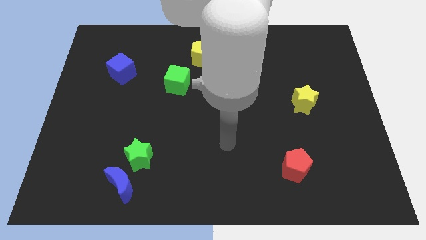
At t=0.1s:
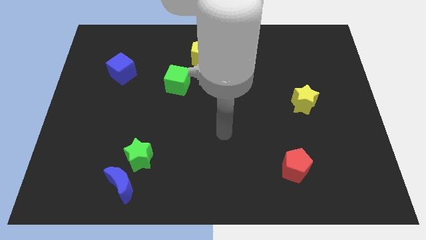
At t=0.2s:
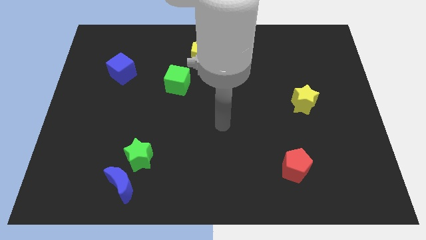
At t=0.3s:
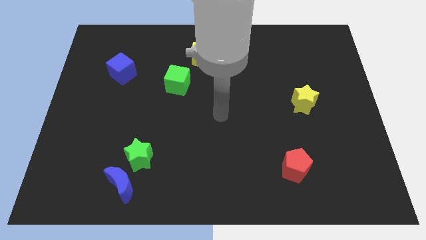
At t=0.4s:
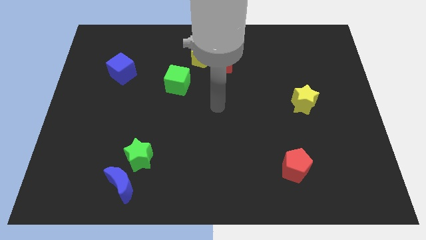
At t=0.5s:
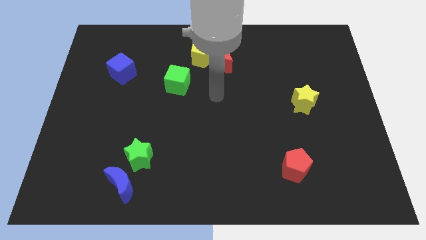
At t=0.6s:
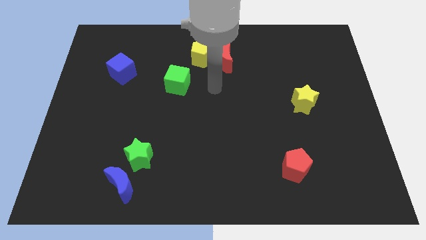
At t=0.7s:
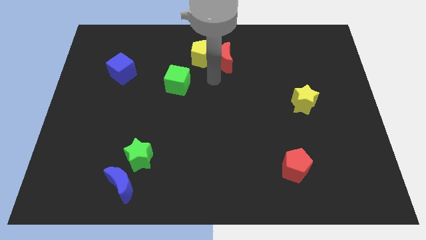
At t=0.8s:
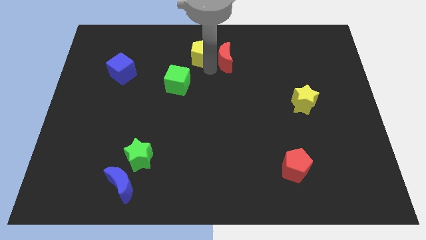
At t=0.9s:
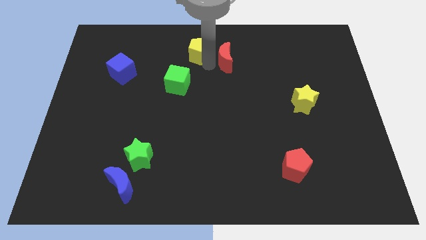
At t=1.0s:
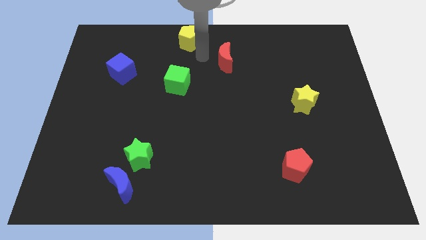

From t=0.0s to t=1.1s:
separate the red moon from the yellow pentagon

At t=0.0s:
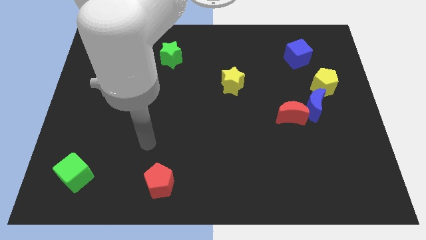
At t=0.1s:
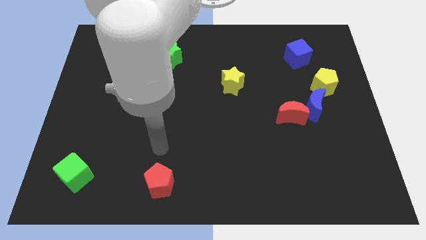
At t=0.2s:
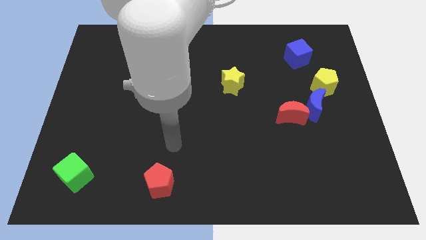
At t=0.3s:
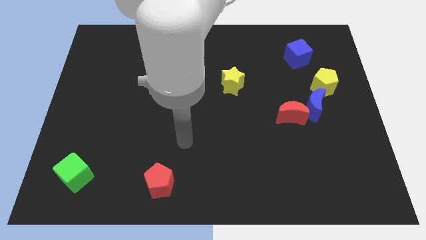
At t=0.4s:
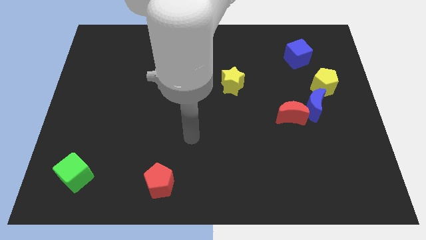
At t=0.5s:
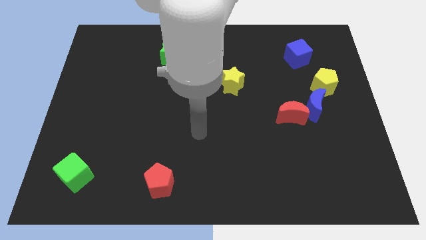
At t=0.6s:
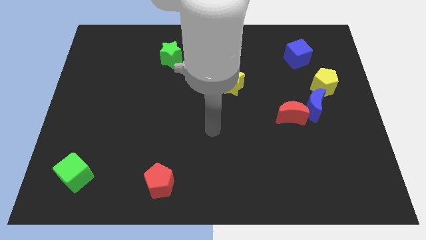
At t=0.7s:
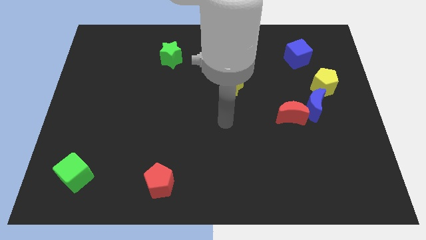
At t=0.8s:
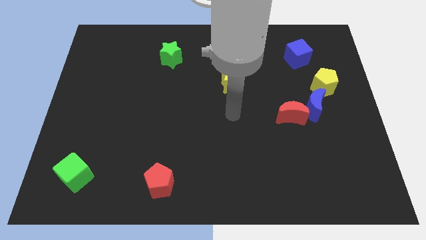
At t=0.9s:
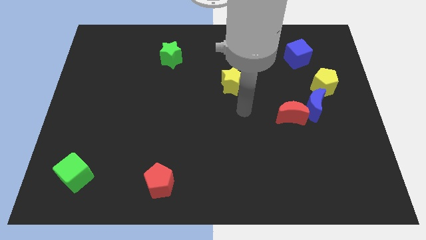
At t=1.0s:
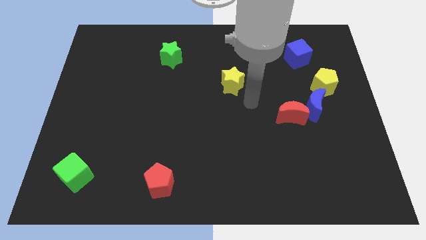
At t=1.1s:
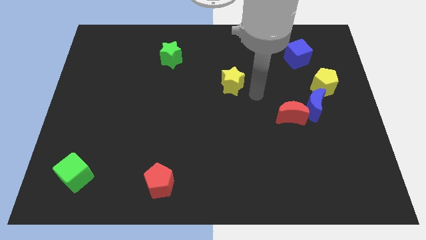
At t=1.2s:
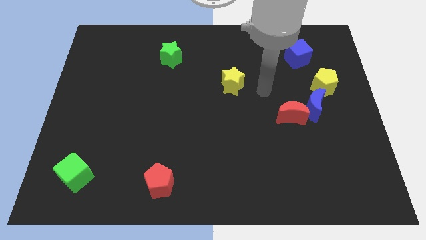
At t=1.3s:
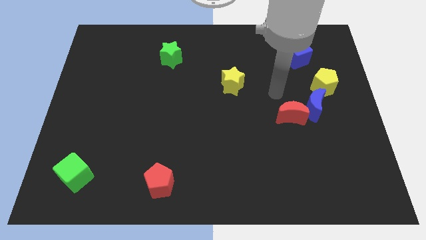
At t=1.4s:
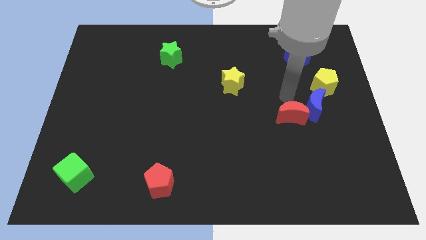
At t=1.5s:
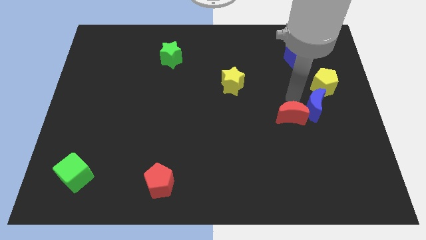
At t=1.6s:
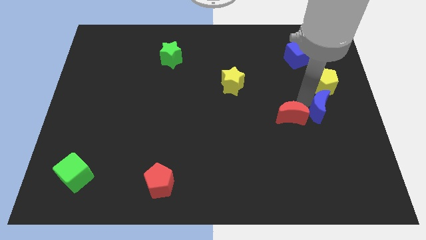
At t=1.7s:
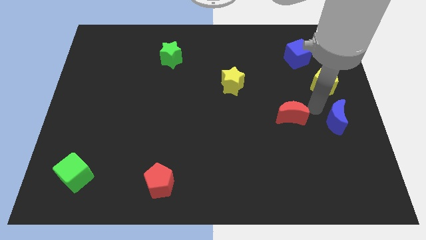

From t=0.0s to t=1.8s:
move the red moon away from the blue moon

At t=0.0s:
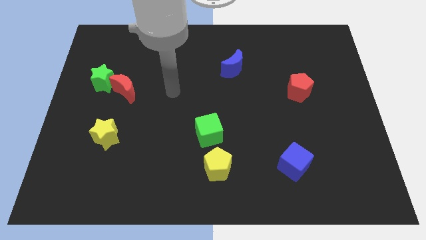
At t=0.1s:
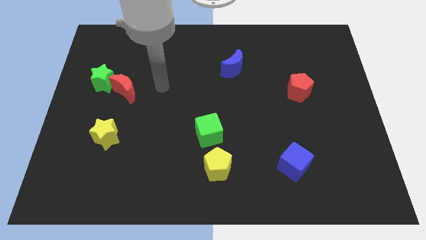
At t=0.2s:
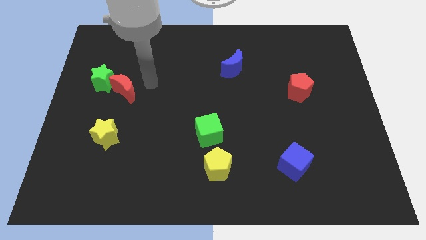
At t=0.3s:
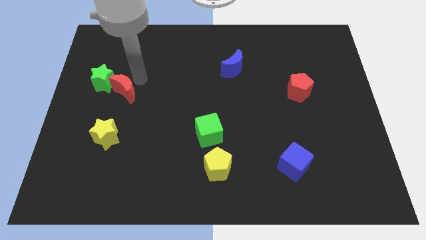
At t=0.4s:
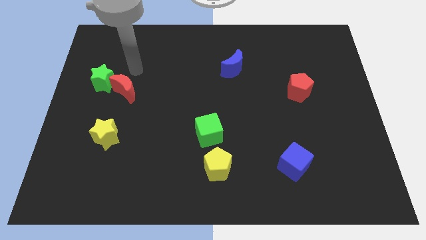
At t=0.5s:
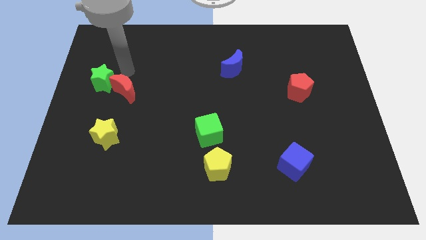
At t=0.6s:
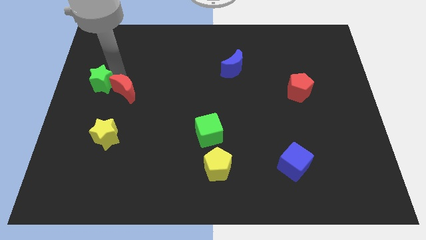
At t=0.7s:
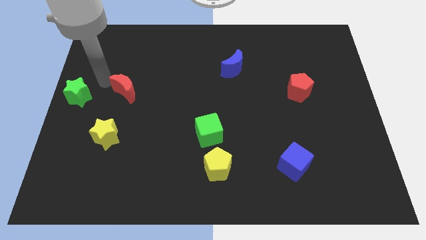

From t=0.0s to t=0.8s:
move the red moon away from the green star

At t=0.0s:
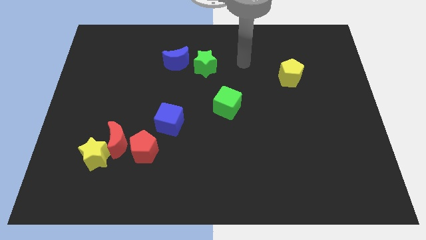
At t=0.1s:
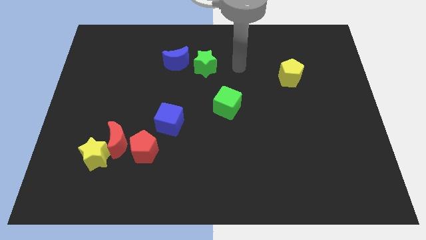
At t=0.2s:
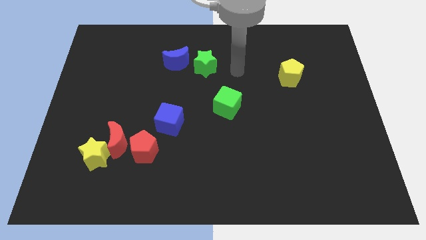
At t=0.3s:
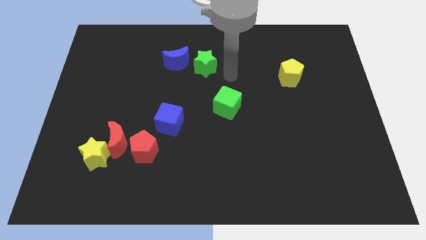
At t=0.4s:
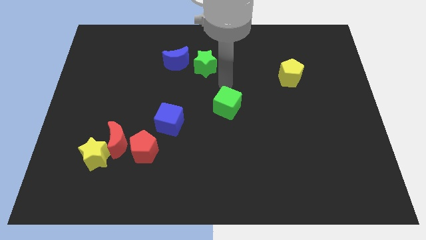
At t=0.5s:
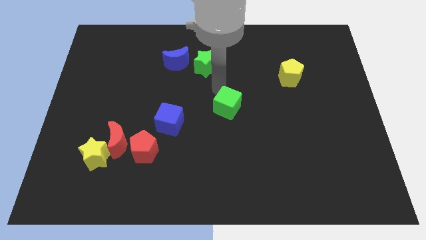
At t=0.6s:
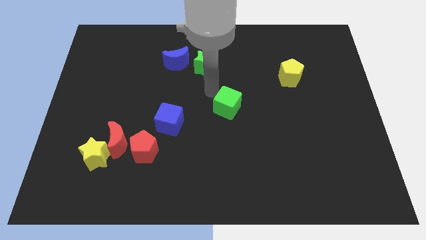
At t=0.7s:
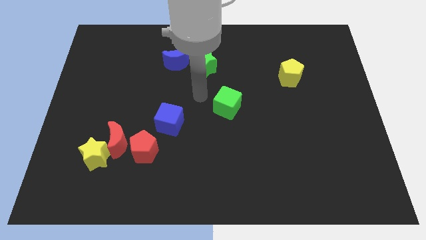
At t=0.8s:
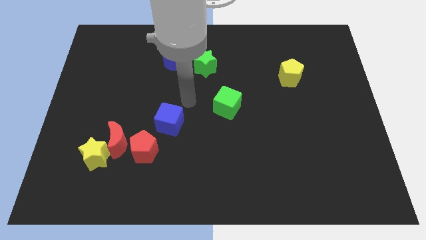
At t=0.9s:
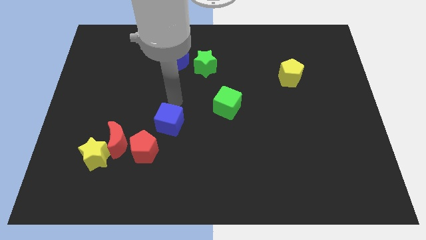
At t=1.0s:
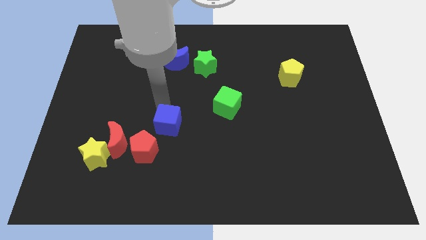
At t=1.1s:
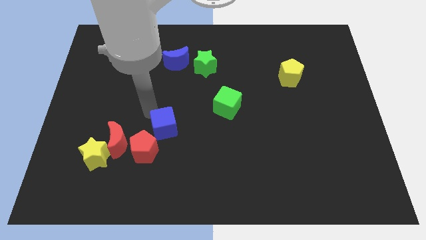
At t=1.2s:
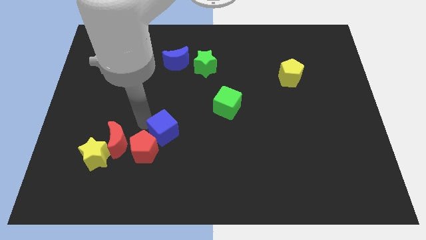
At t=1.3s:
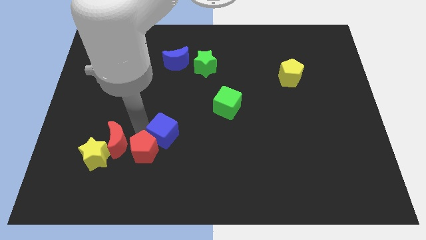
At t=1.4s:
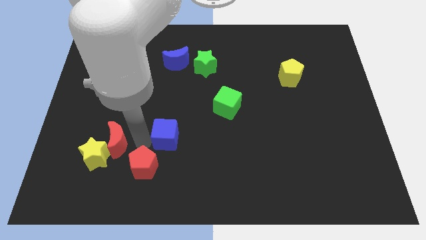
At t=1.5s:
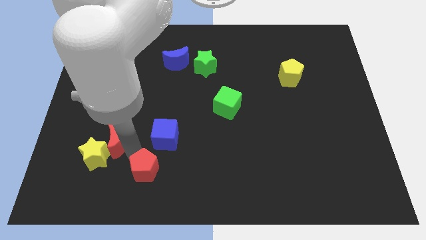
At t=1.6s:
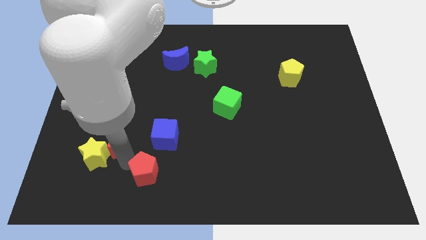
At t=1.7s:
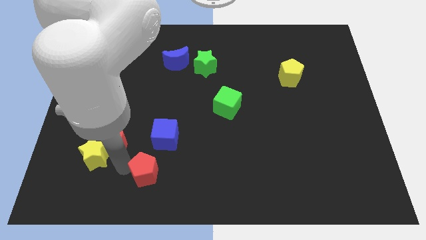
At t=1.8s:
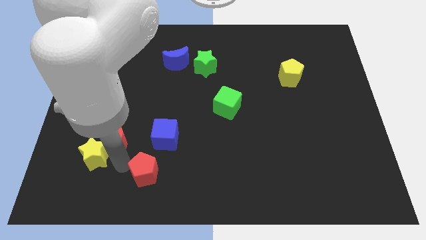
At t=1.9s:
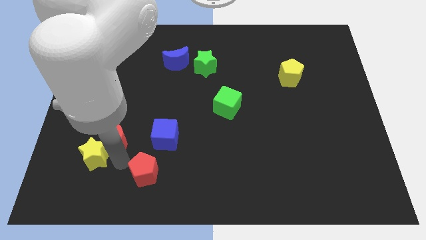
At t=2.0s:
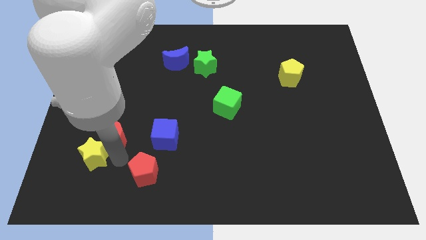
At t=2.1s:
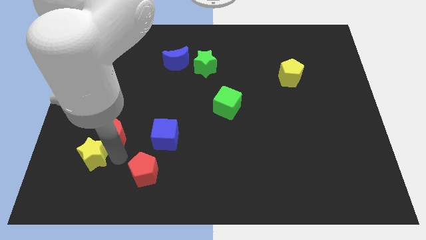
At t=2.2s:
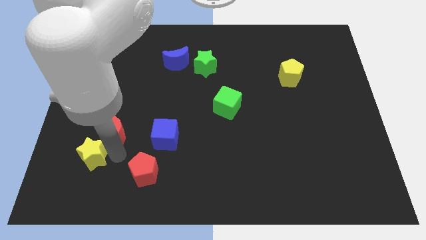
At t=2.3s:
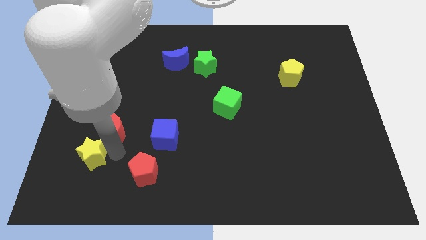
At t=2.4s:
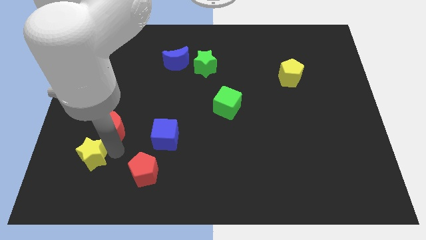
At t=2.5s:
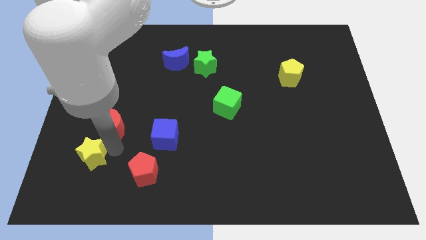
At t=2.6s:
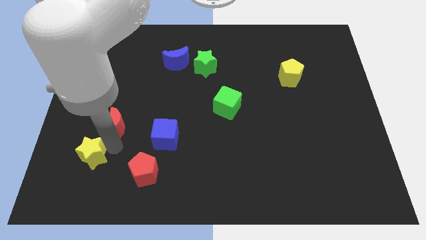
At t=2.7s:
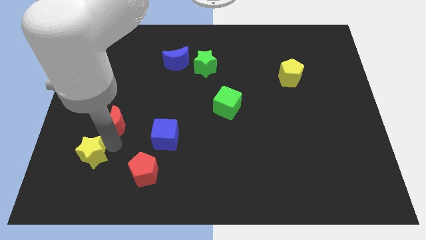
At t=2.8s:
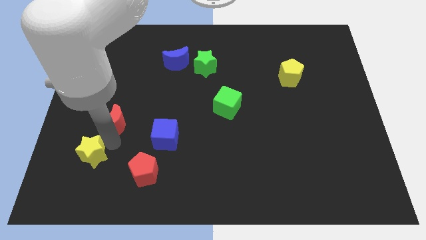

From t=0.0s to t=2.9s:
pull the red moon apart from the yellow star and red pentagon

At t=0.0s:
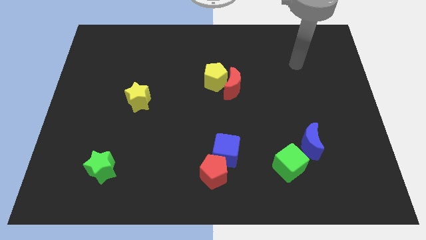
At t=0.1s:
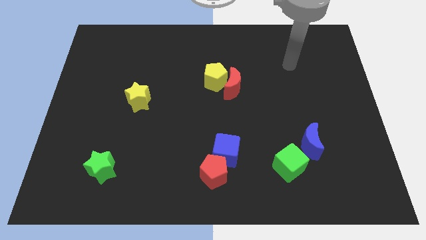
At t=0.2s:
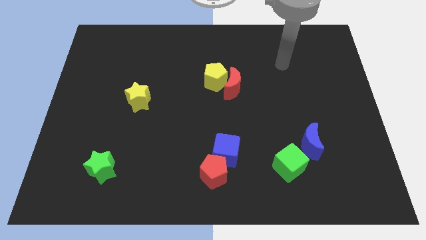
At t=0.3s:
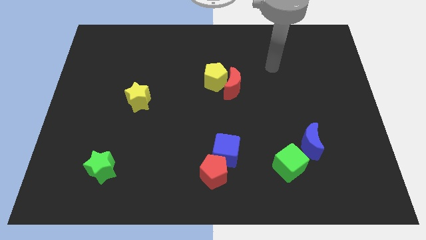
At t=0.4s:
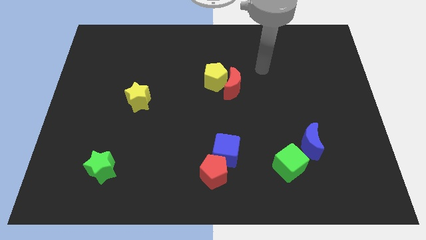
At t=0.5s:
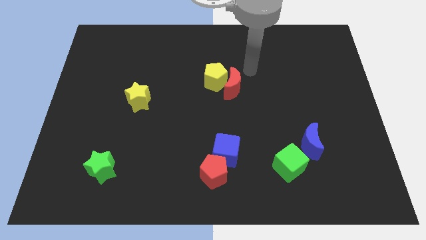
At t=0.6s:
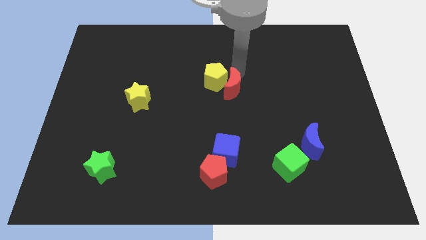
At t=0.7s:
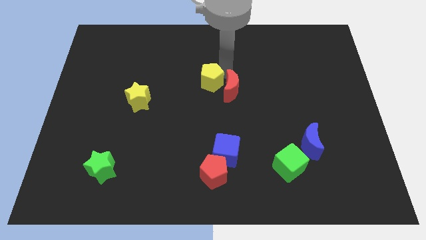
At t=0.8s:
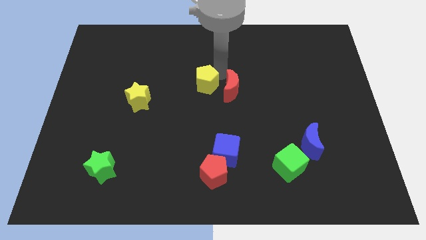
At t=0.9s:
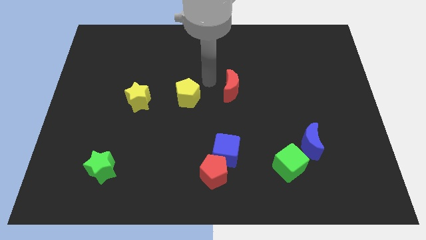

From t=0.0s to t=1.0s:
move the red moon away from the yellow pentagon

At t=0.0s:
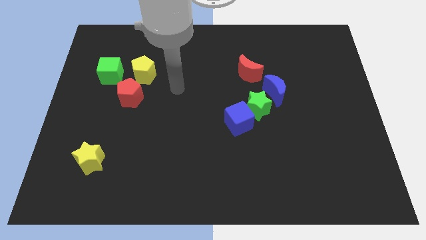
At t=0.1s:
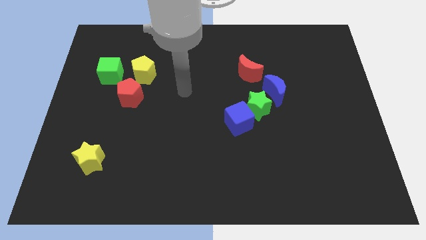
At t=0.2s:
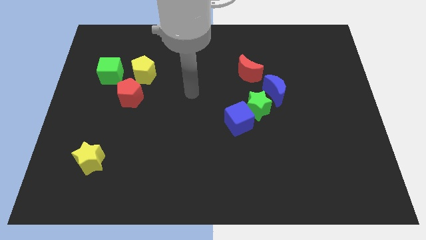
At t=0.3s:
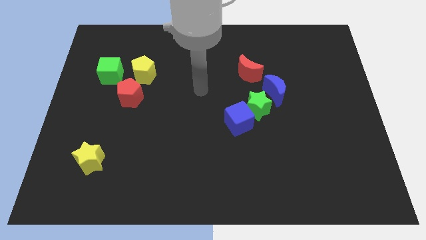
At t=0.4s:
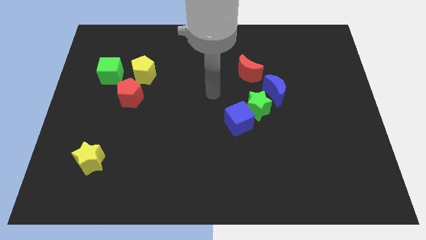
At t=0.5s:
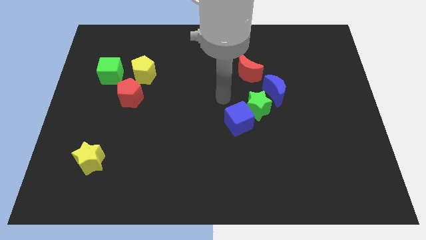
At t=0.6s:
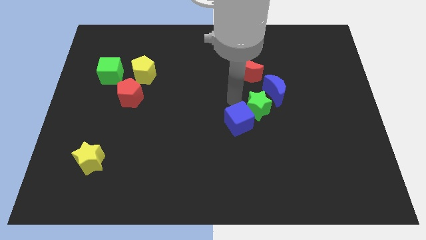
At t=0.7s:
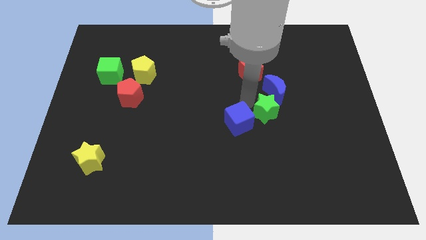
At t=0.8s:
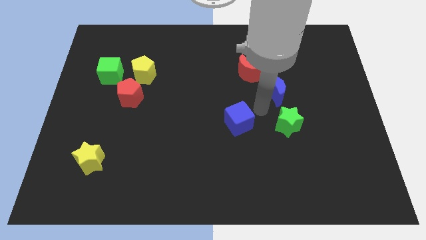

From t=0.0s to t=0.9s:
move the blue cube away from the green star

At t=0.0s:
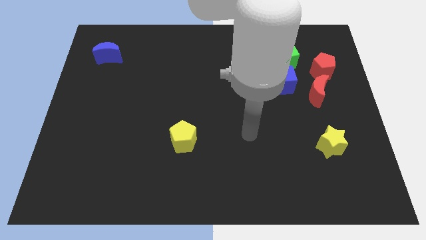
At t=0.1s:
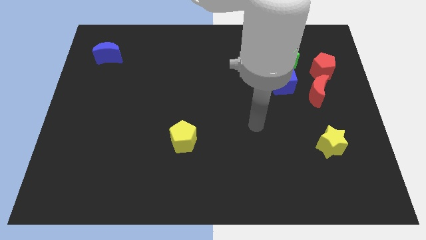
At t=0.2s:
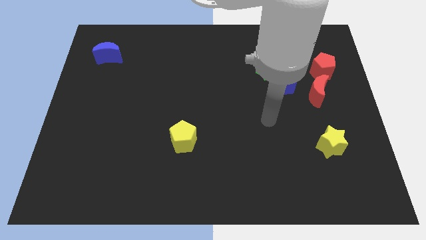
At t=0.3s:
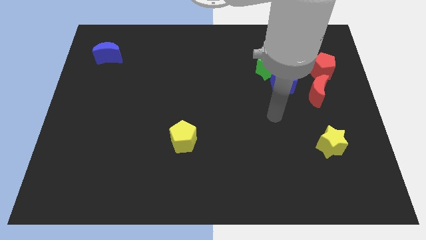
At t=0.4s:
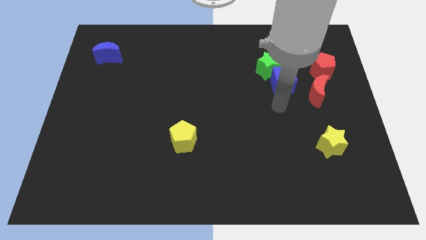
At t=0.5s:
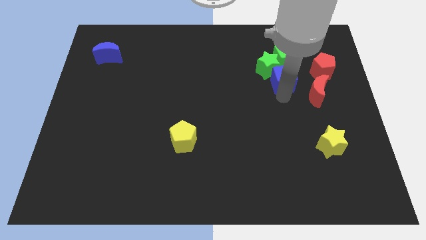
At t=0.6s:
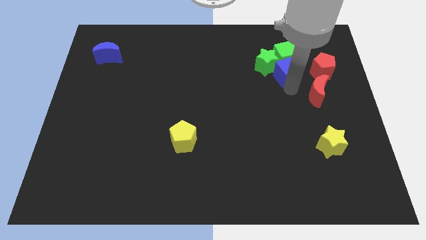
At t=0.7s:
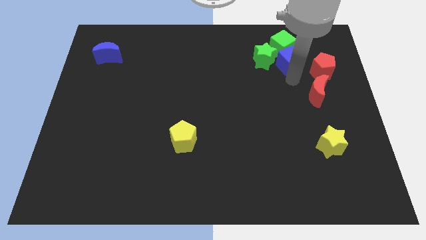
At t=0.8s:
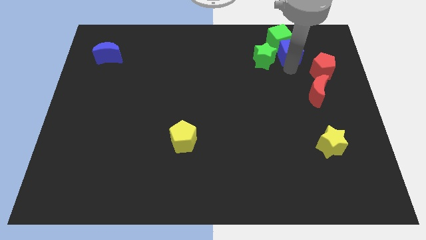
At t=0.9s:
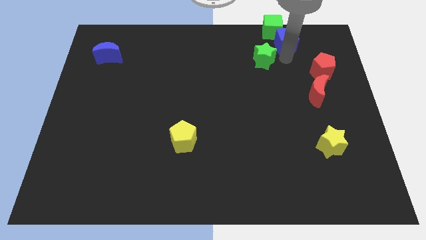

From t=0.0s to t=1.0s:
separate the green star from the green cube and blue cube
